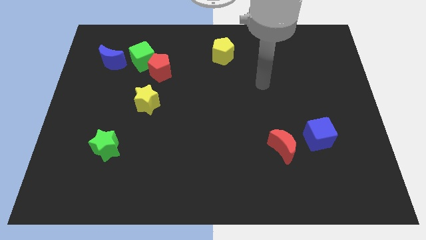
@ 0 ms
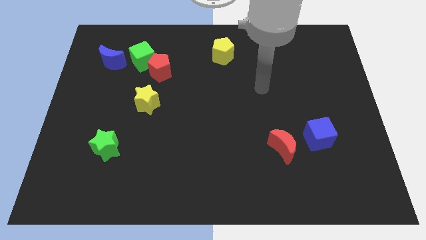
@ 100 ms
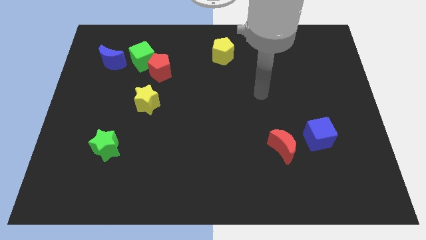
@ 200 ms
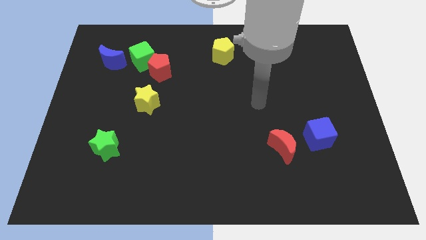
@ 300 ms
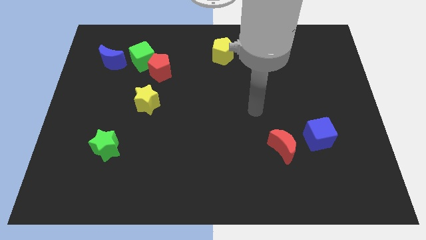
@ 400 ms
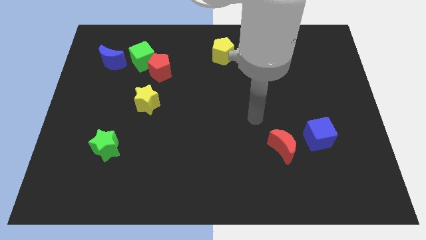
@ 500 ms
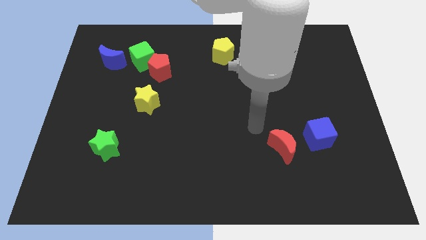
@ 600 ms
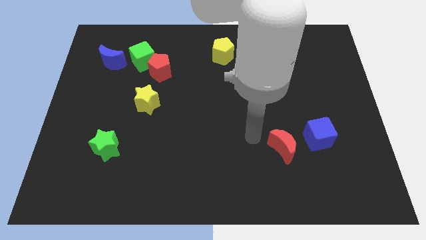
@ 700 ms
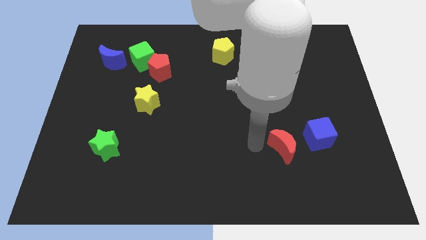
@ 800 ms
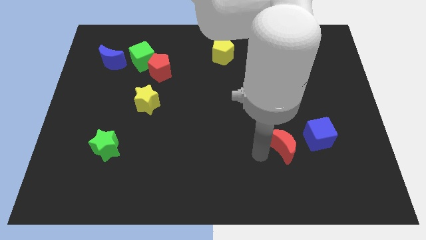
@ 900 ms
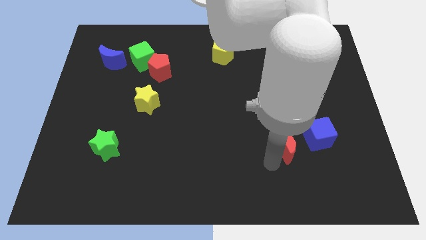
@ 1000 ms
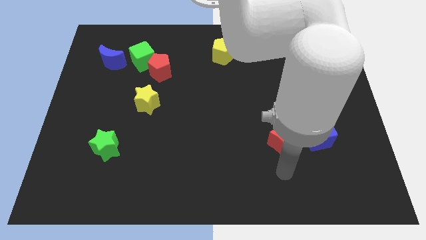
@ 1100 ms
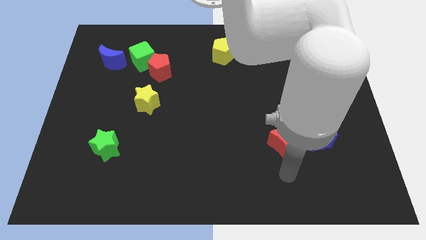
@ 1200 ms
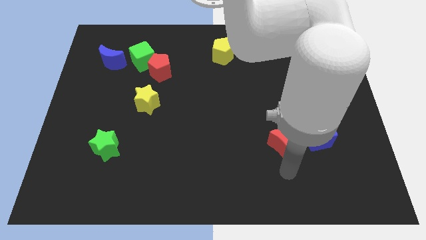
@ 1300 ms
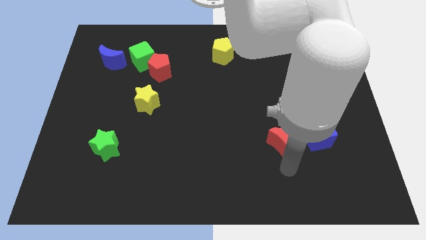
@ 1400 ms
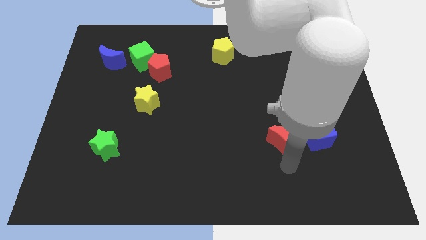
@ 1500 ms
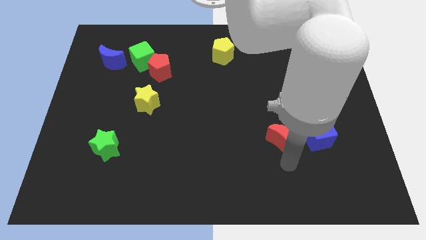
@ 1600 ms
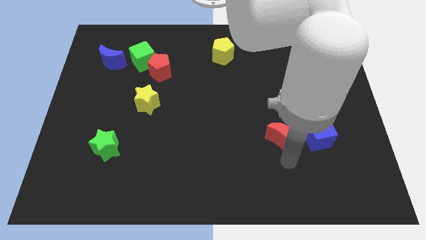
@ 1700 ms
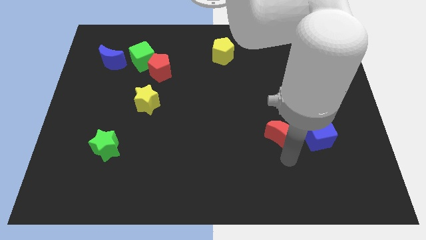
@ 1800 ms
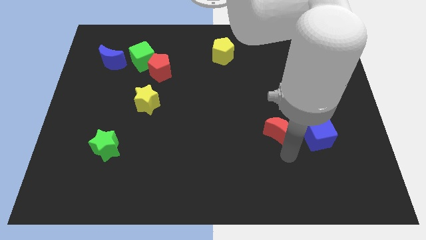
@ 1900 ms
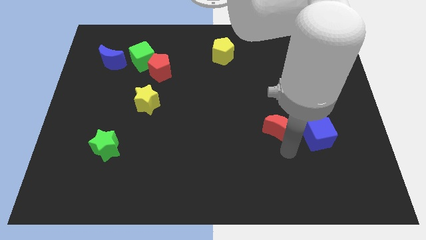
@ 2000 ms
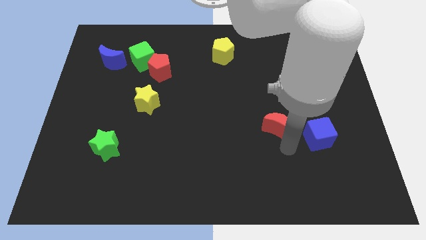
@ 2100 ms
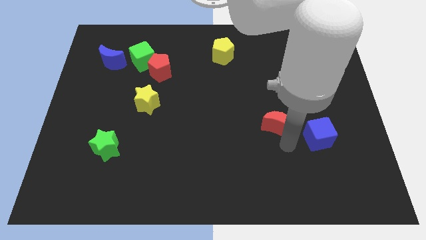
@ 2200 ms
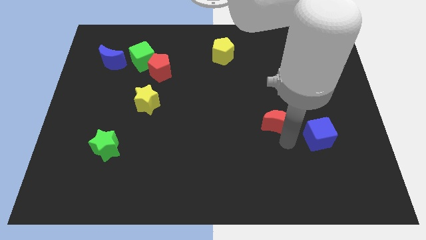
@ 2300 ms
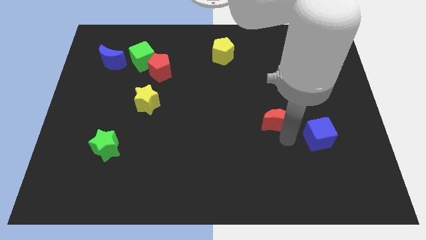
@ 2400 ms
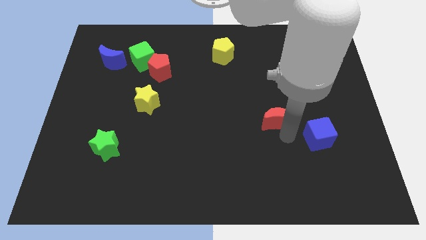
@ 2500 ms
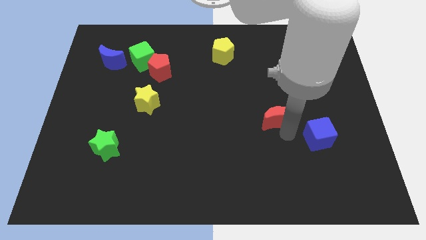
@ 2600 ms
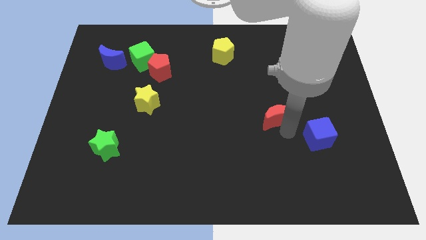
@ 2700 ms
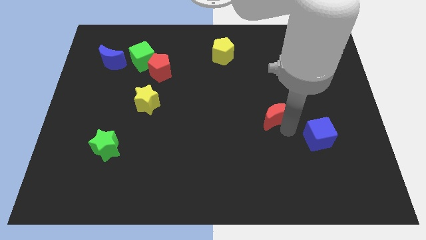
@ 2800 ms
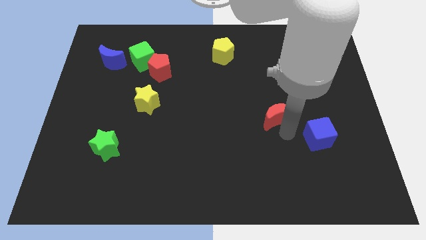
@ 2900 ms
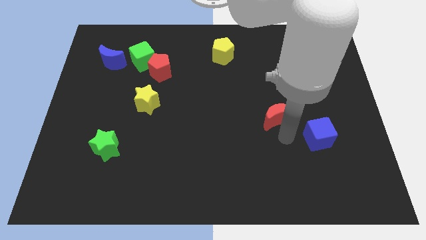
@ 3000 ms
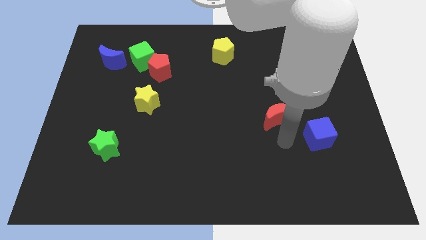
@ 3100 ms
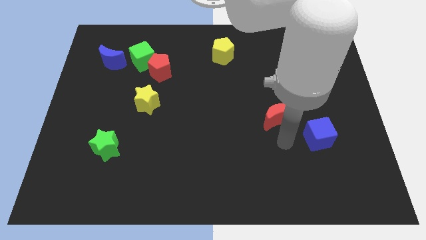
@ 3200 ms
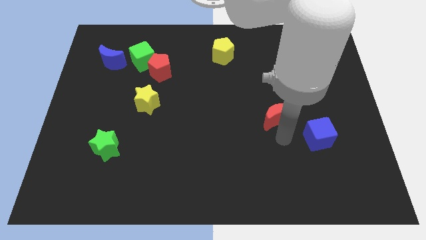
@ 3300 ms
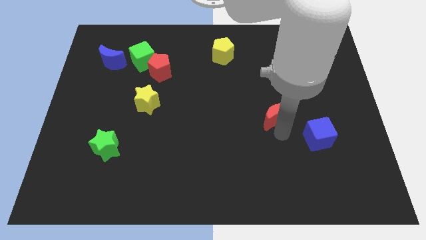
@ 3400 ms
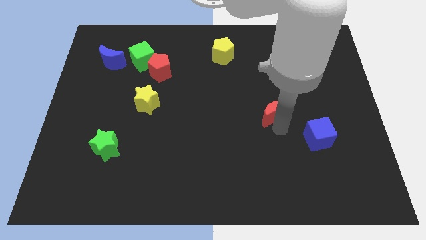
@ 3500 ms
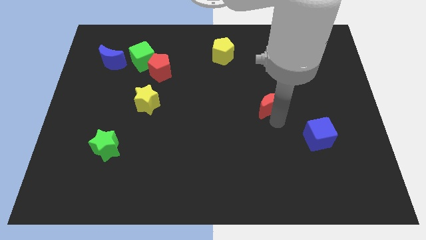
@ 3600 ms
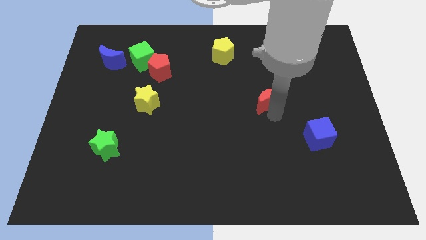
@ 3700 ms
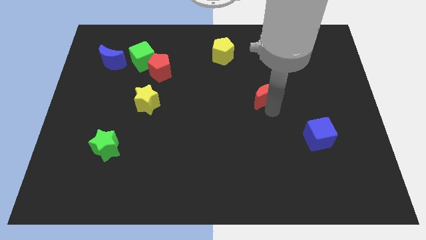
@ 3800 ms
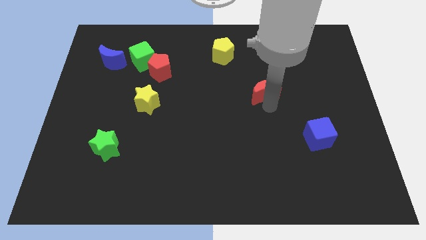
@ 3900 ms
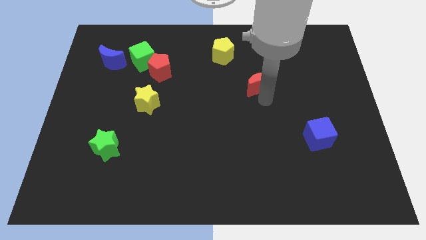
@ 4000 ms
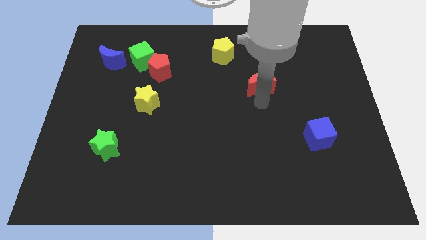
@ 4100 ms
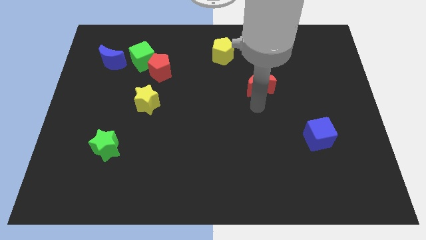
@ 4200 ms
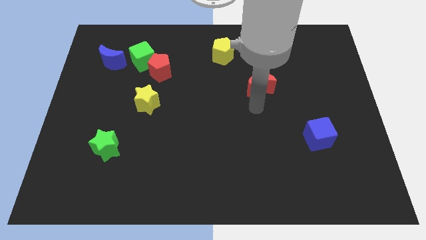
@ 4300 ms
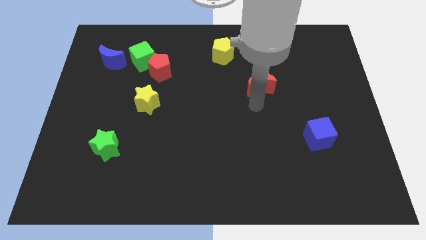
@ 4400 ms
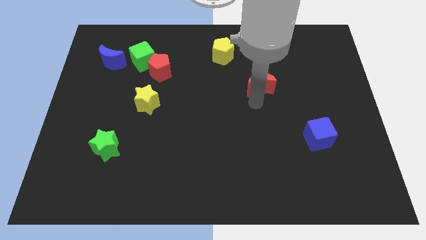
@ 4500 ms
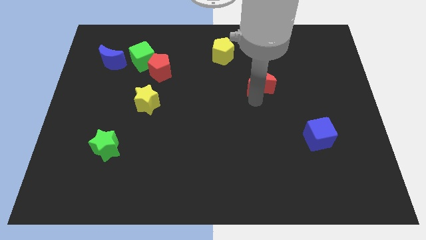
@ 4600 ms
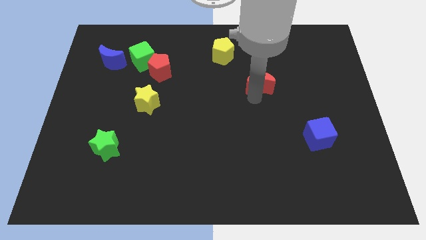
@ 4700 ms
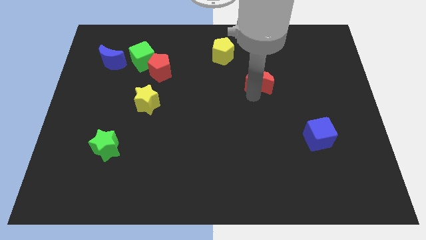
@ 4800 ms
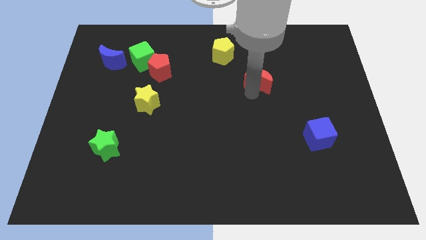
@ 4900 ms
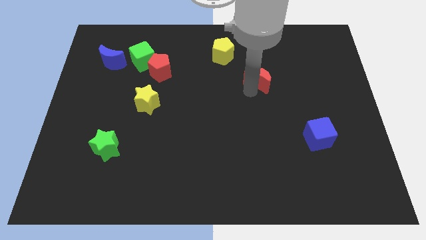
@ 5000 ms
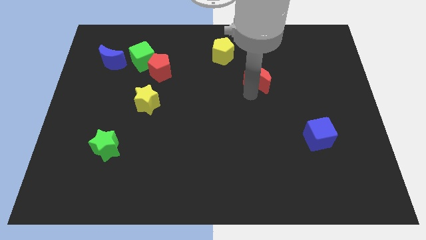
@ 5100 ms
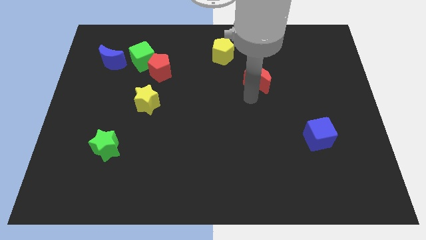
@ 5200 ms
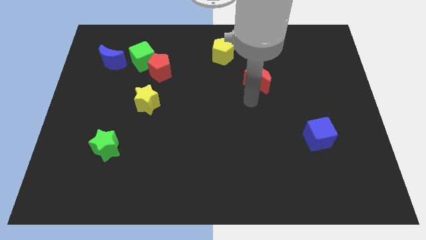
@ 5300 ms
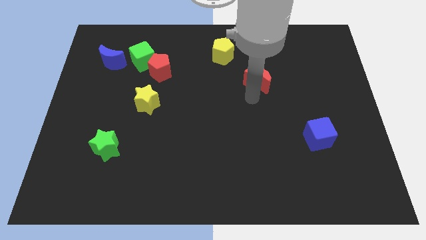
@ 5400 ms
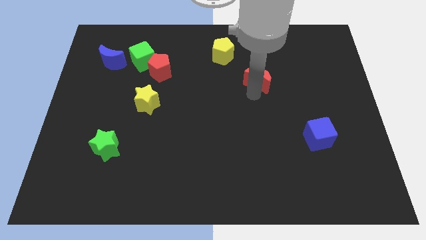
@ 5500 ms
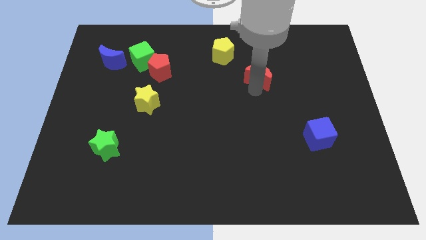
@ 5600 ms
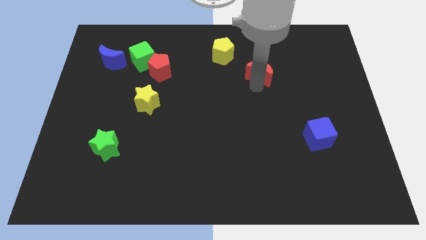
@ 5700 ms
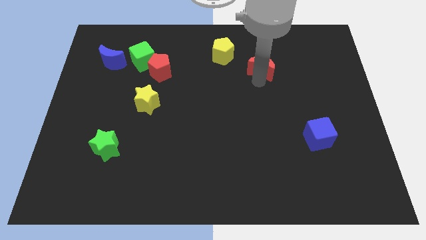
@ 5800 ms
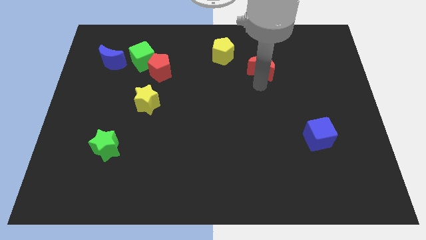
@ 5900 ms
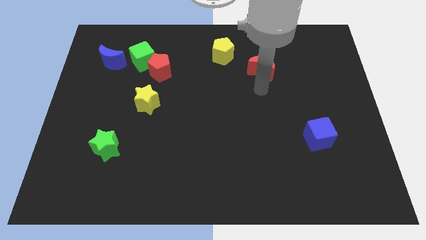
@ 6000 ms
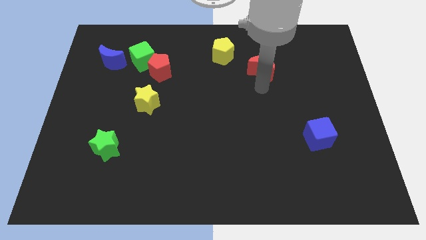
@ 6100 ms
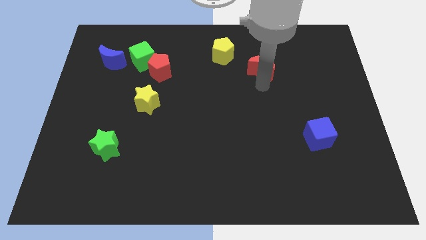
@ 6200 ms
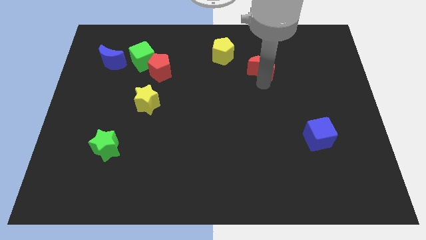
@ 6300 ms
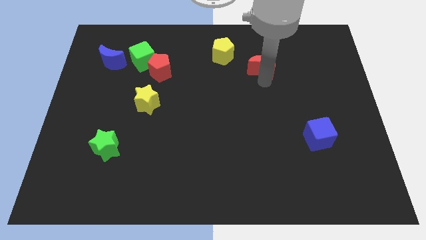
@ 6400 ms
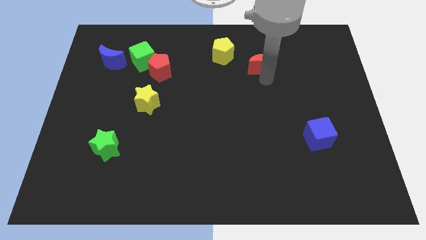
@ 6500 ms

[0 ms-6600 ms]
put the red moon right of the yellow pentagon
